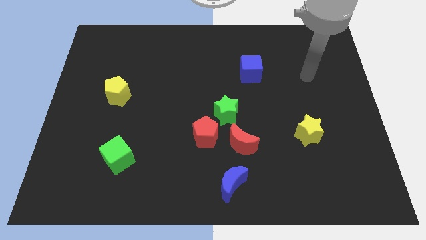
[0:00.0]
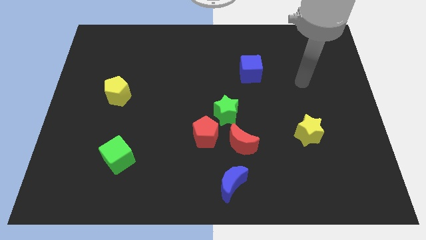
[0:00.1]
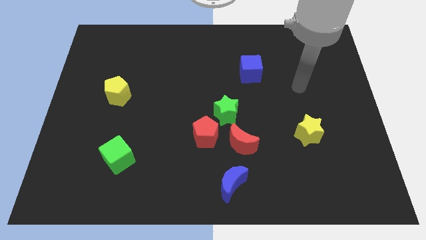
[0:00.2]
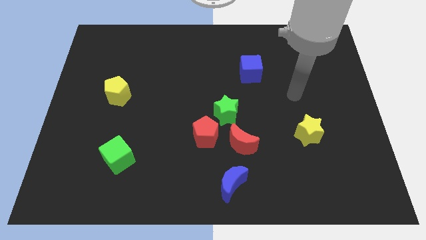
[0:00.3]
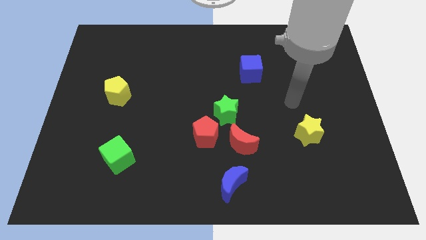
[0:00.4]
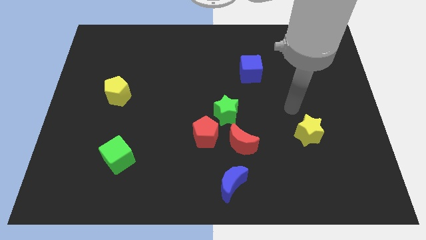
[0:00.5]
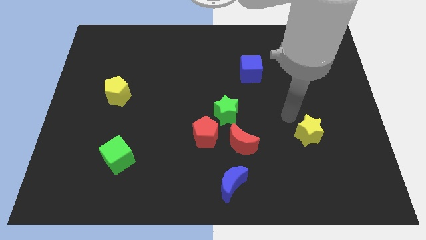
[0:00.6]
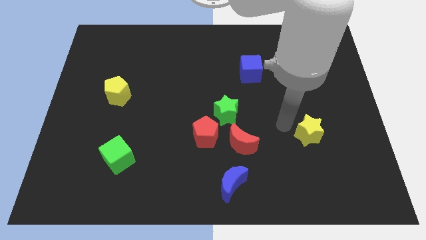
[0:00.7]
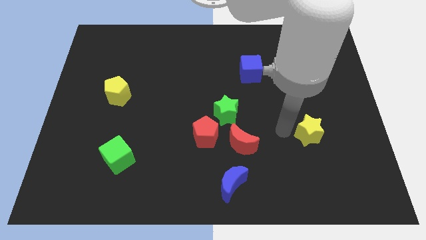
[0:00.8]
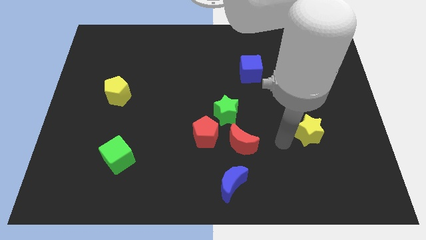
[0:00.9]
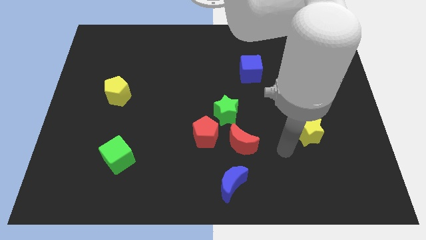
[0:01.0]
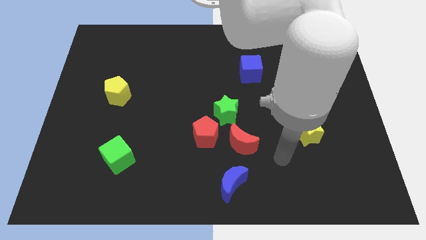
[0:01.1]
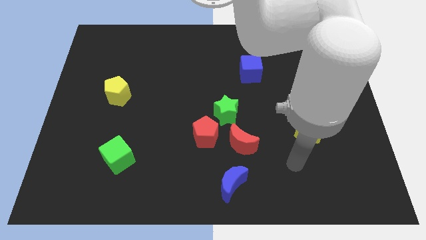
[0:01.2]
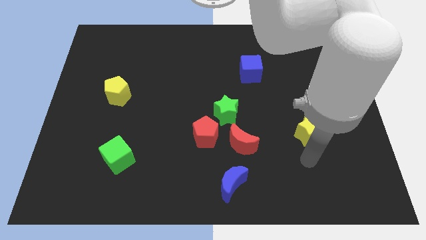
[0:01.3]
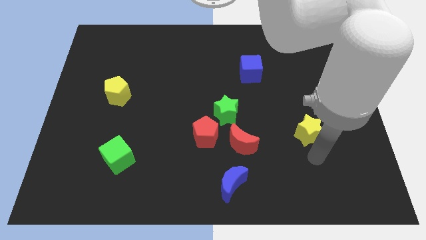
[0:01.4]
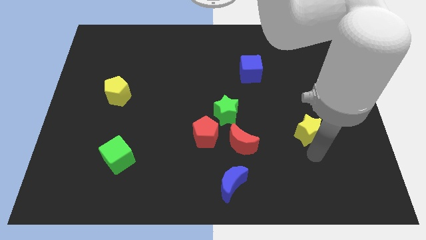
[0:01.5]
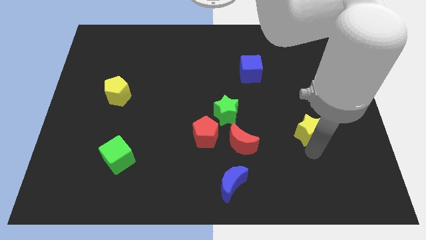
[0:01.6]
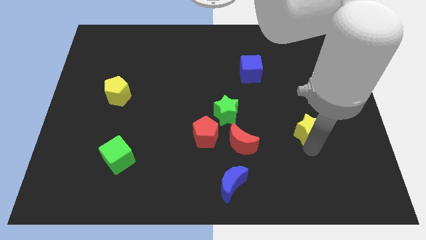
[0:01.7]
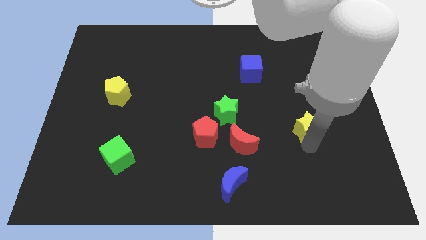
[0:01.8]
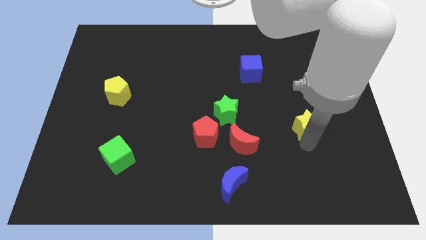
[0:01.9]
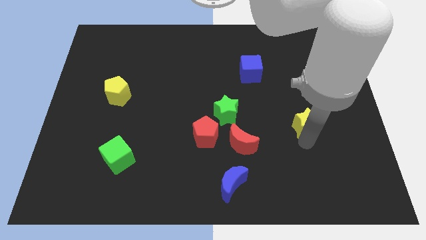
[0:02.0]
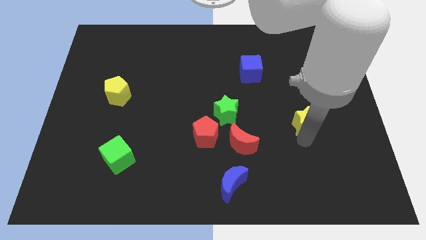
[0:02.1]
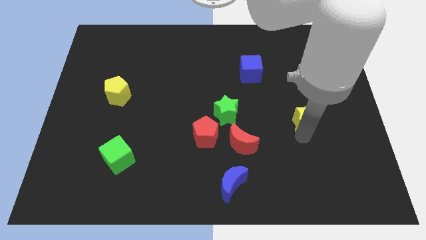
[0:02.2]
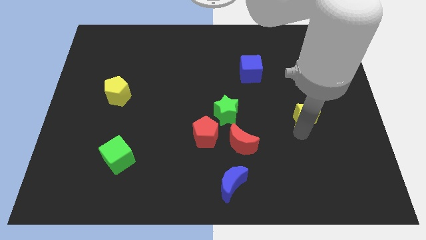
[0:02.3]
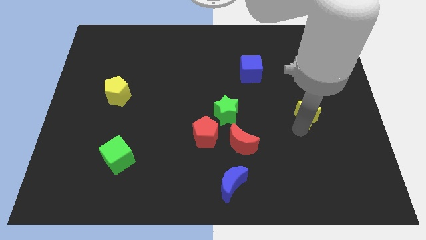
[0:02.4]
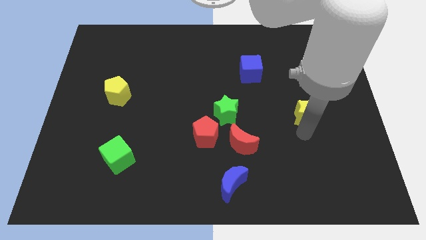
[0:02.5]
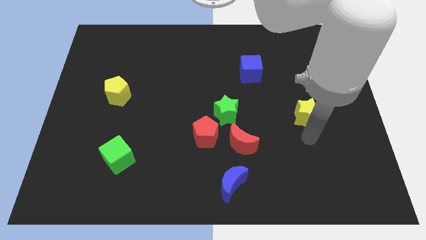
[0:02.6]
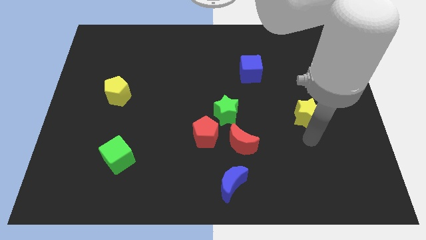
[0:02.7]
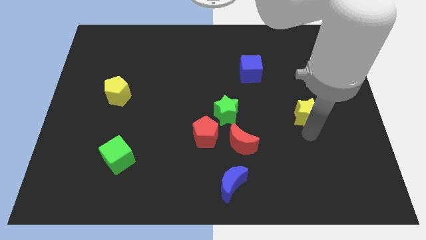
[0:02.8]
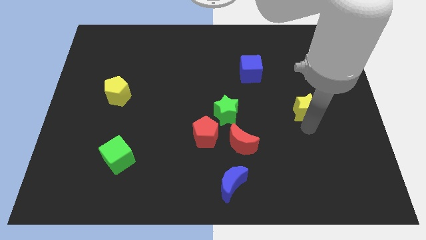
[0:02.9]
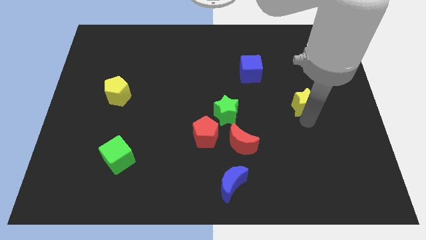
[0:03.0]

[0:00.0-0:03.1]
slightly push the yellow star upwards

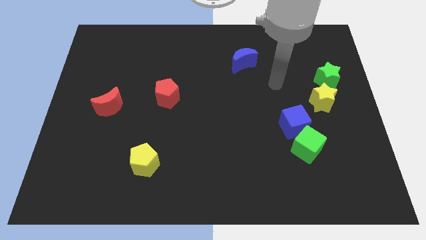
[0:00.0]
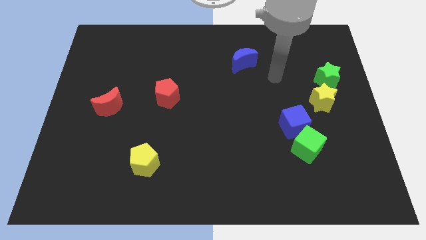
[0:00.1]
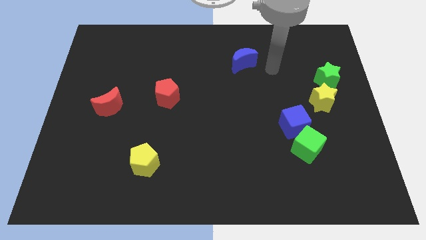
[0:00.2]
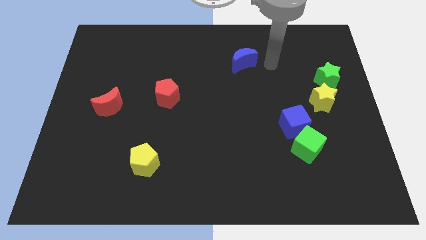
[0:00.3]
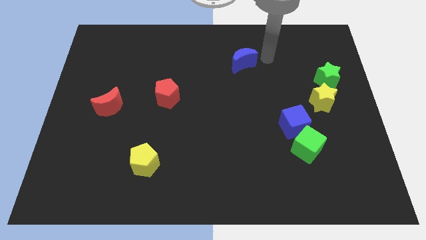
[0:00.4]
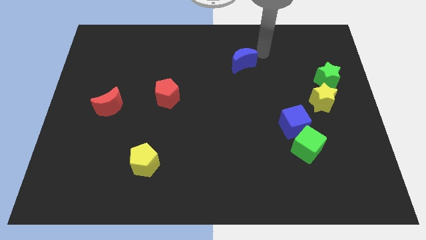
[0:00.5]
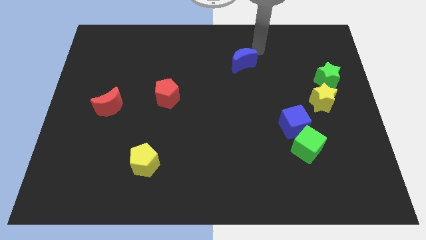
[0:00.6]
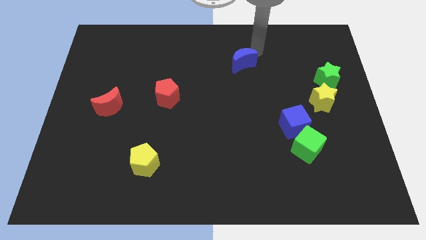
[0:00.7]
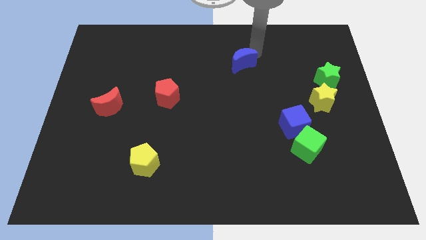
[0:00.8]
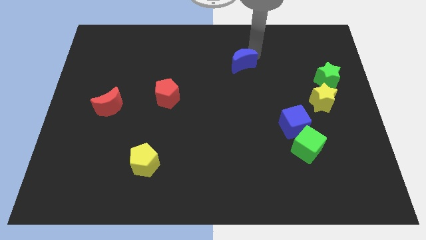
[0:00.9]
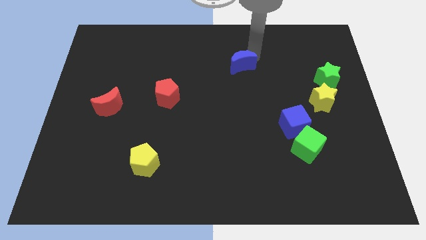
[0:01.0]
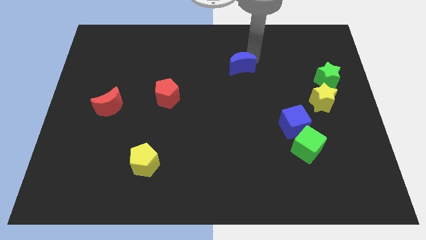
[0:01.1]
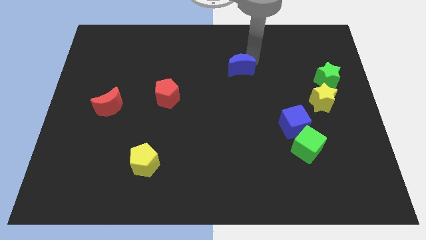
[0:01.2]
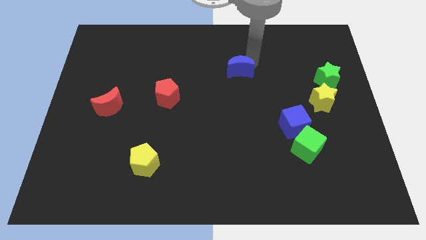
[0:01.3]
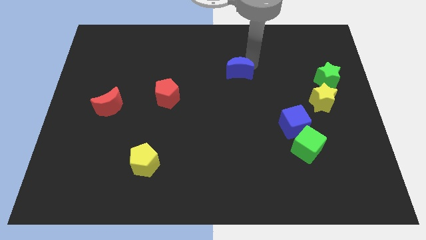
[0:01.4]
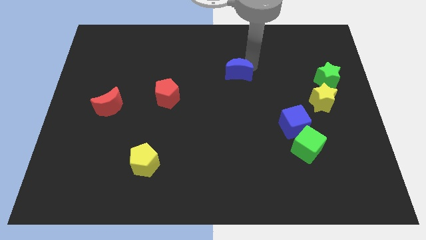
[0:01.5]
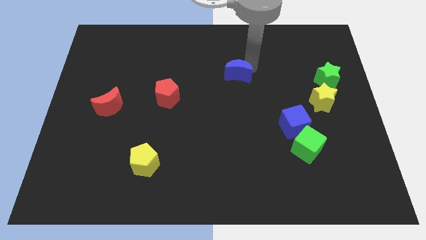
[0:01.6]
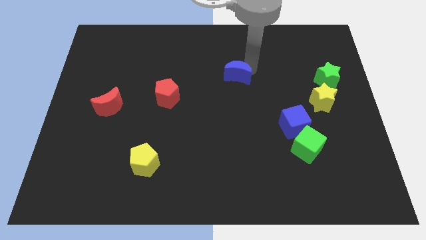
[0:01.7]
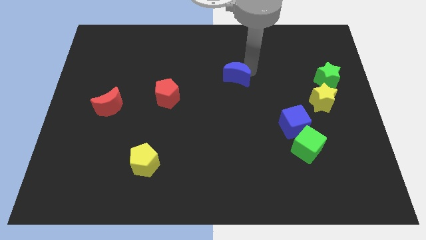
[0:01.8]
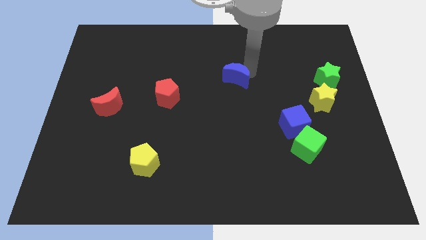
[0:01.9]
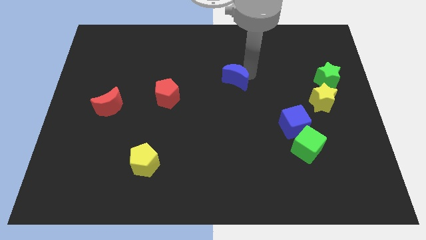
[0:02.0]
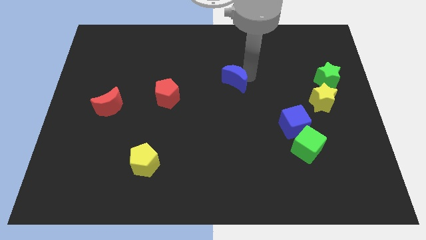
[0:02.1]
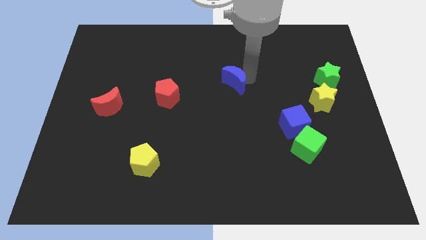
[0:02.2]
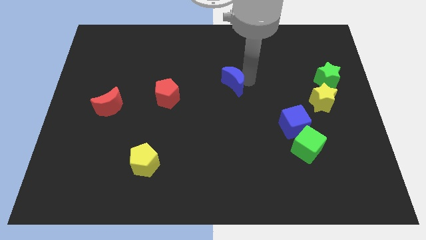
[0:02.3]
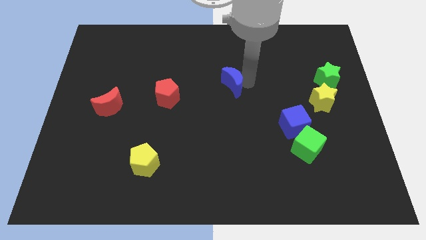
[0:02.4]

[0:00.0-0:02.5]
slightly slide the blue moon down and to the left diagonally

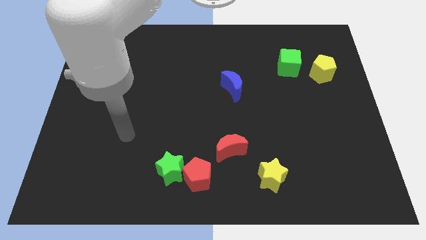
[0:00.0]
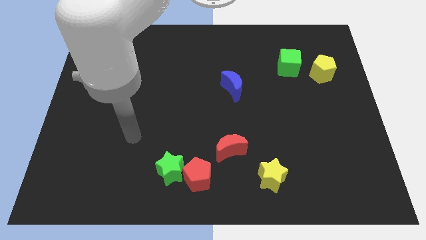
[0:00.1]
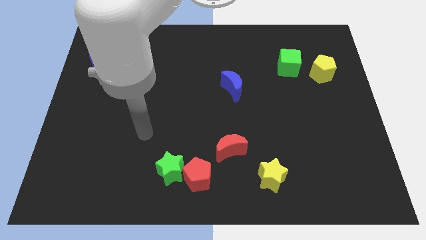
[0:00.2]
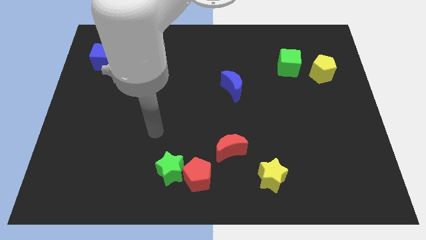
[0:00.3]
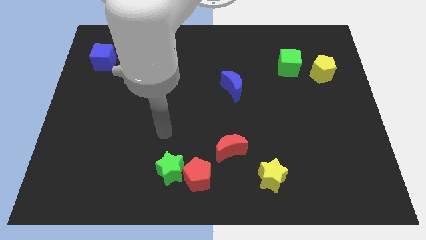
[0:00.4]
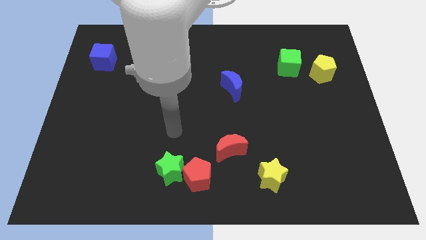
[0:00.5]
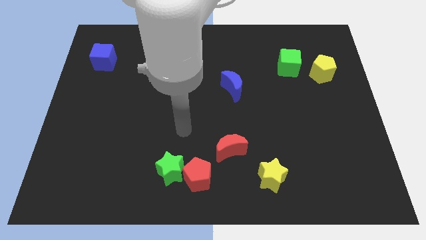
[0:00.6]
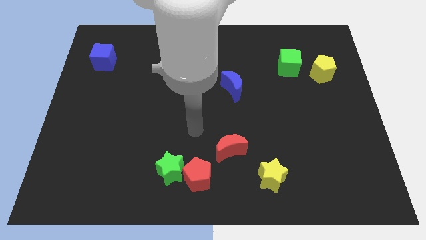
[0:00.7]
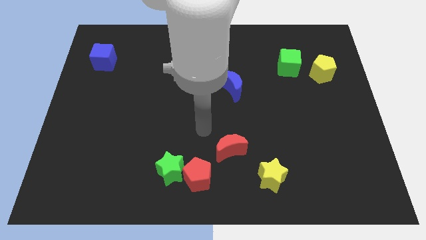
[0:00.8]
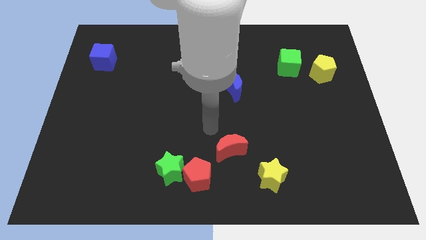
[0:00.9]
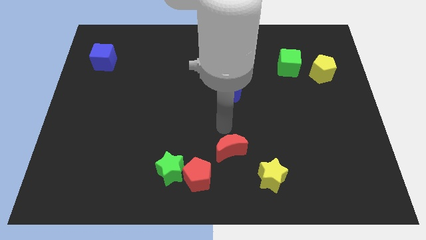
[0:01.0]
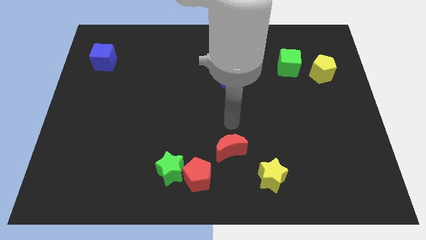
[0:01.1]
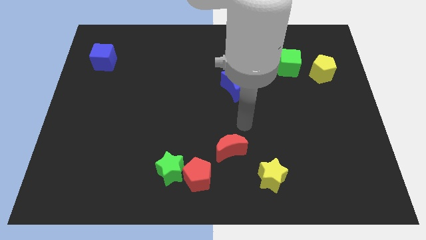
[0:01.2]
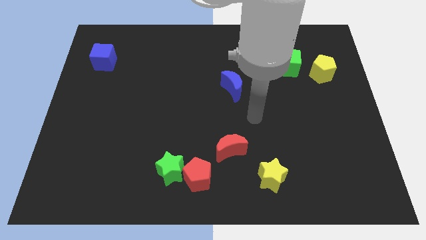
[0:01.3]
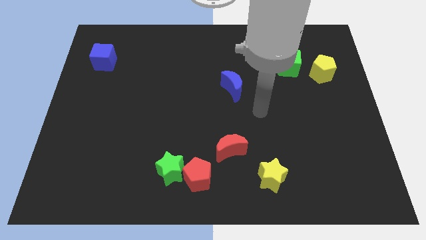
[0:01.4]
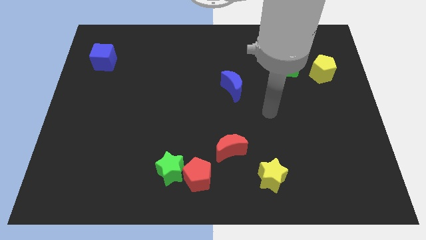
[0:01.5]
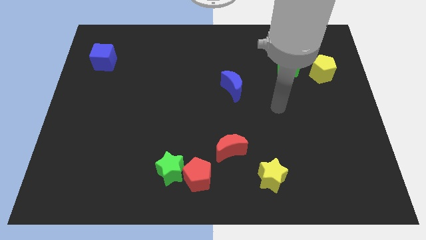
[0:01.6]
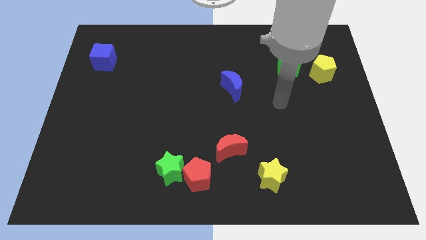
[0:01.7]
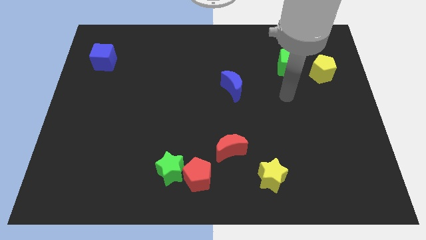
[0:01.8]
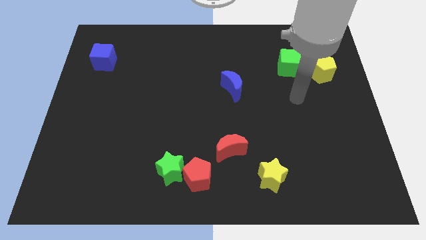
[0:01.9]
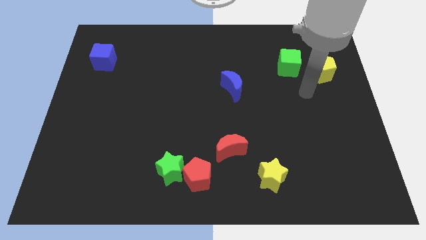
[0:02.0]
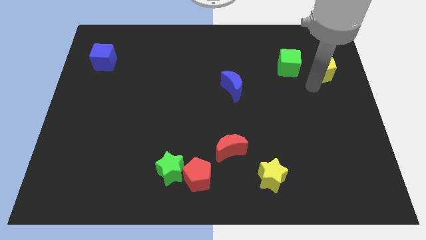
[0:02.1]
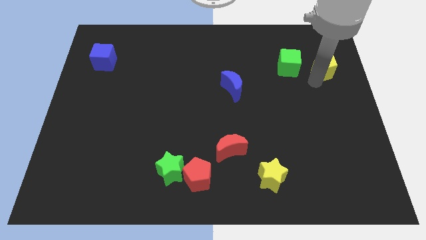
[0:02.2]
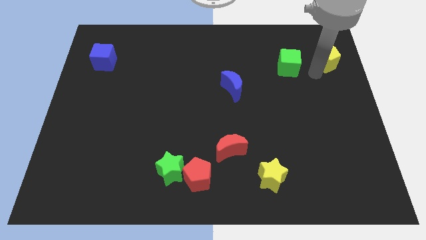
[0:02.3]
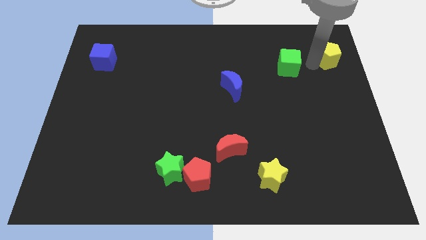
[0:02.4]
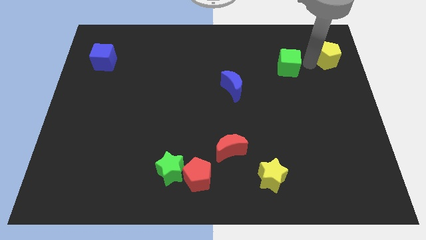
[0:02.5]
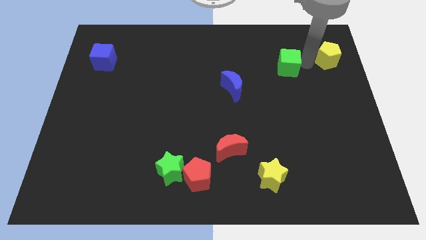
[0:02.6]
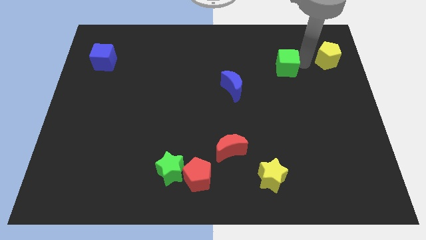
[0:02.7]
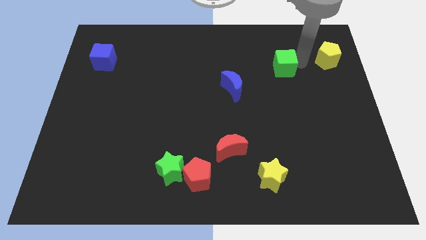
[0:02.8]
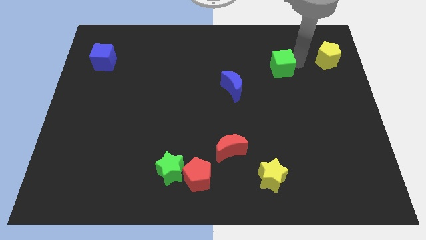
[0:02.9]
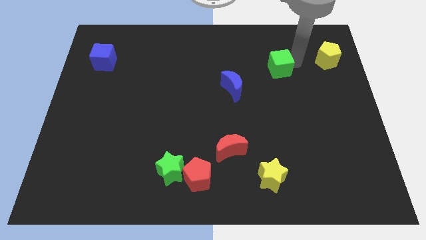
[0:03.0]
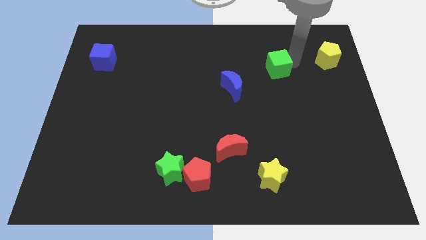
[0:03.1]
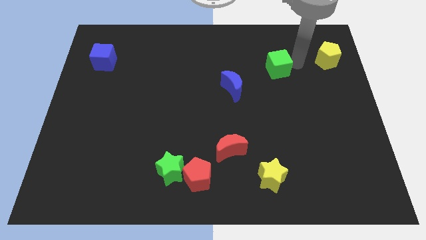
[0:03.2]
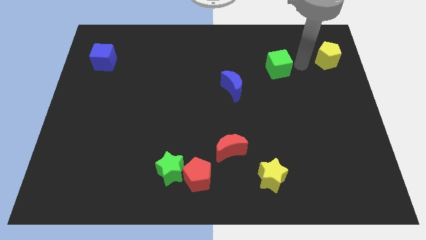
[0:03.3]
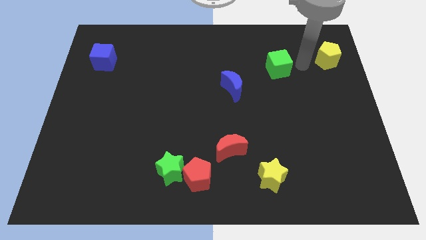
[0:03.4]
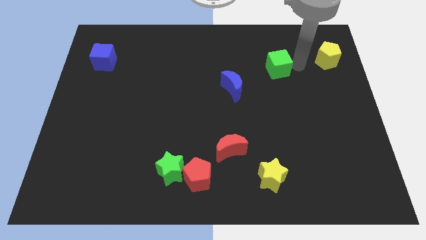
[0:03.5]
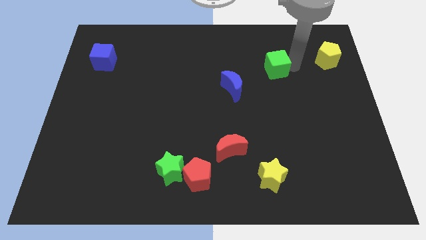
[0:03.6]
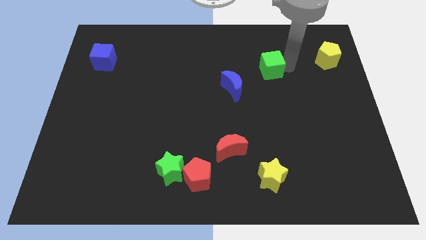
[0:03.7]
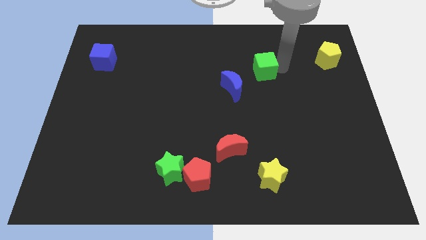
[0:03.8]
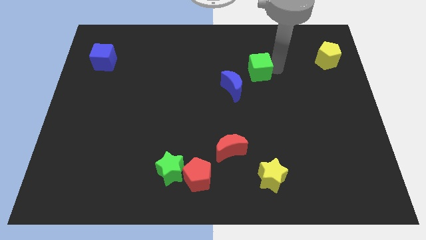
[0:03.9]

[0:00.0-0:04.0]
move the green cube to the left somewhat
